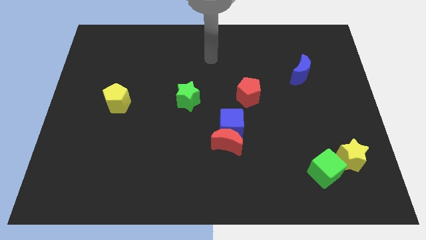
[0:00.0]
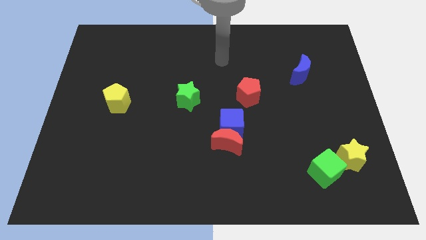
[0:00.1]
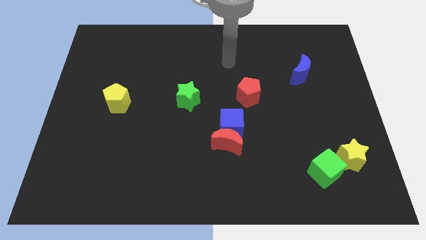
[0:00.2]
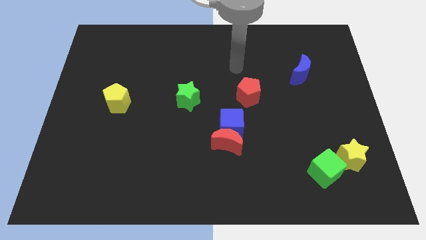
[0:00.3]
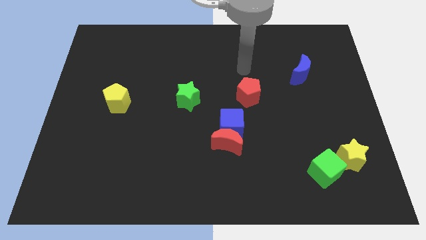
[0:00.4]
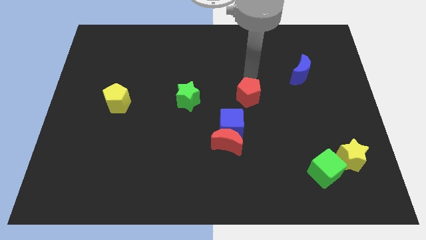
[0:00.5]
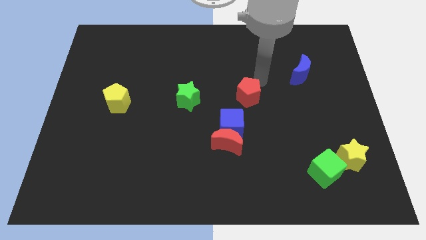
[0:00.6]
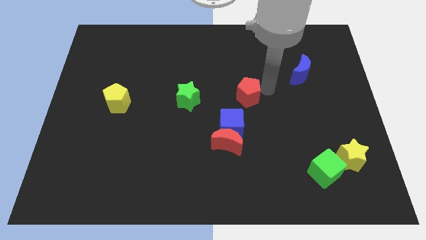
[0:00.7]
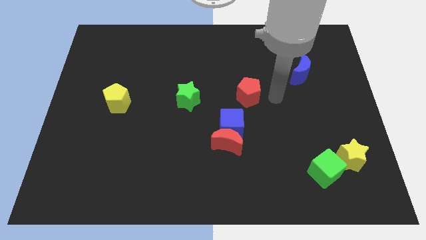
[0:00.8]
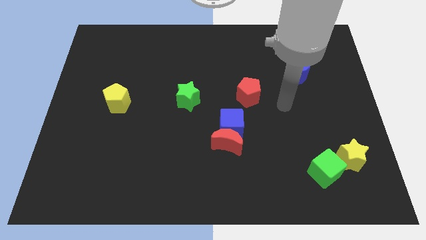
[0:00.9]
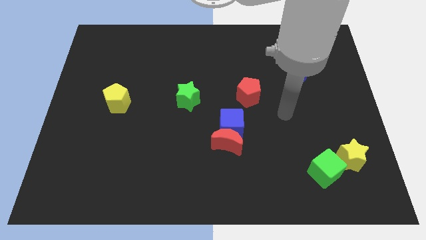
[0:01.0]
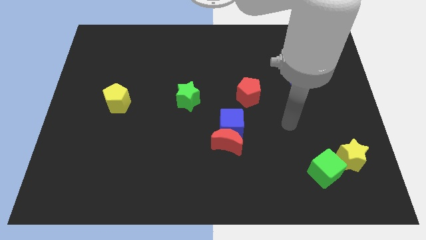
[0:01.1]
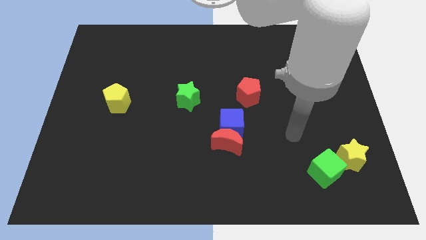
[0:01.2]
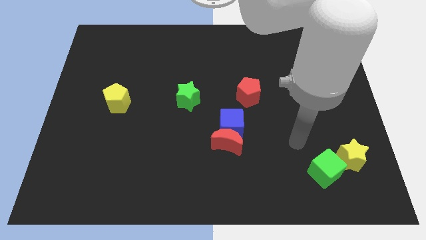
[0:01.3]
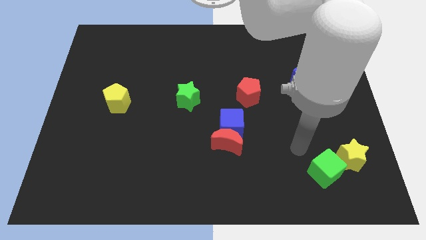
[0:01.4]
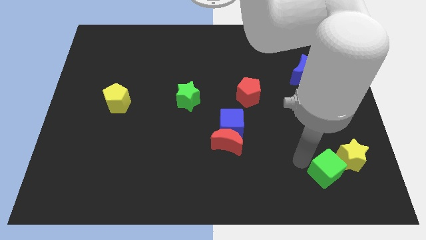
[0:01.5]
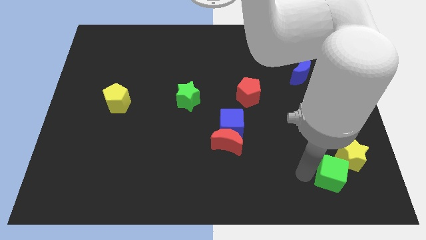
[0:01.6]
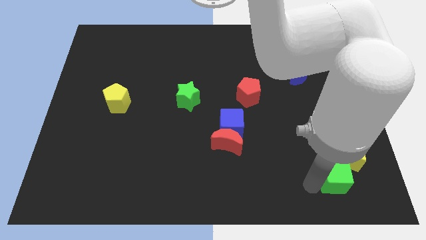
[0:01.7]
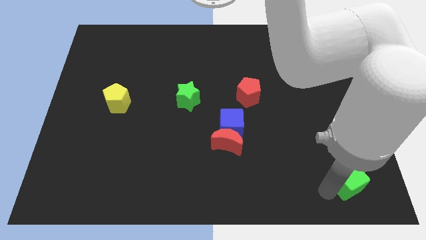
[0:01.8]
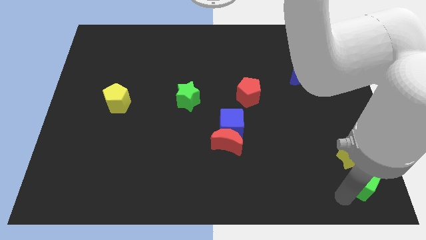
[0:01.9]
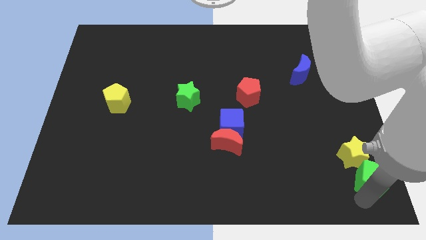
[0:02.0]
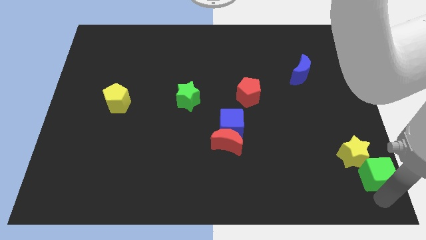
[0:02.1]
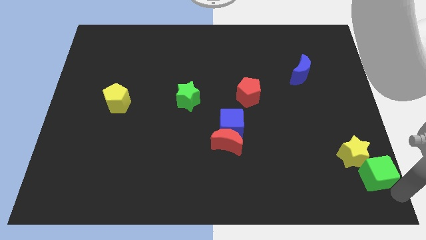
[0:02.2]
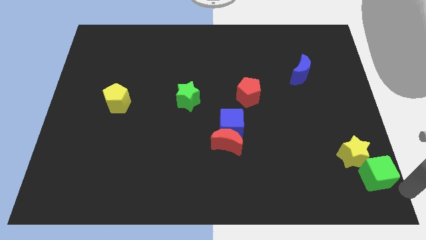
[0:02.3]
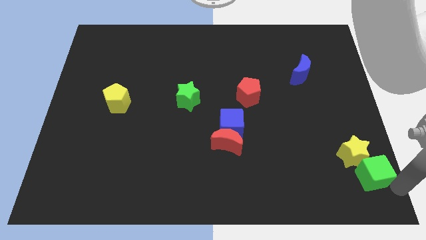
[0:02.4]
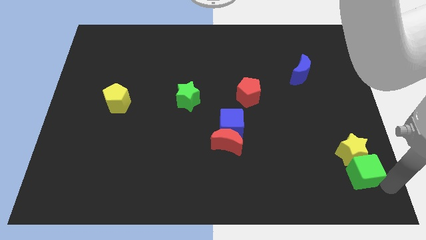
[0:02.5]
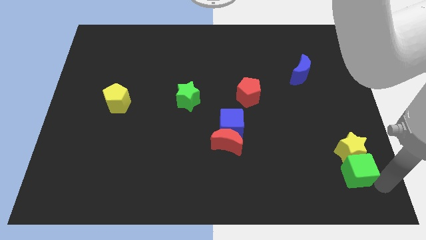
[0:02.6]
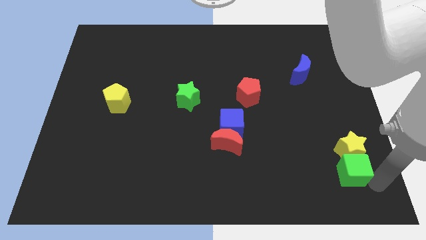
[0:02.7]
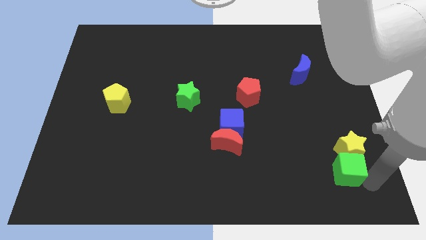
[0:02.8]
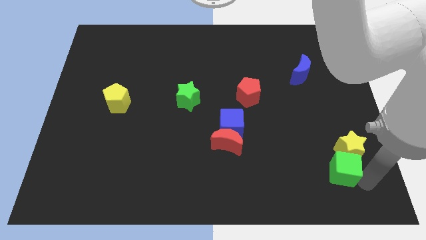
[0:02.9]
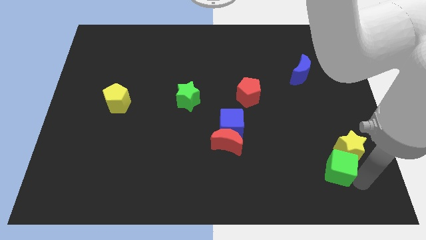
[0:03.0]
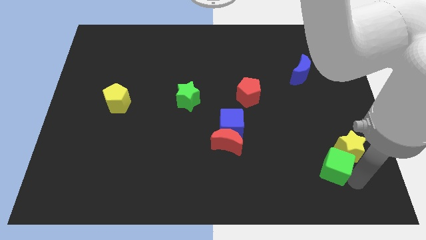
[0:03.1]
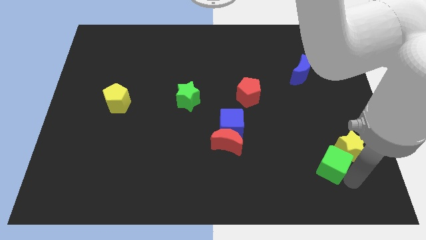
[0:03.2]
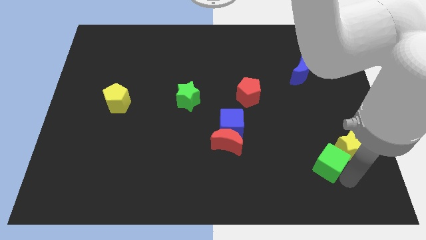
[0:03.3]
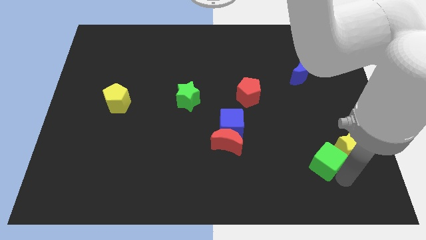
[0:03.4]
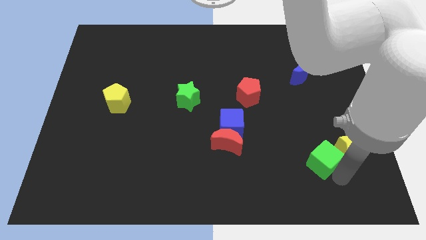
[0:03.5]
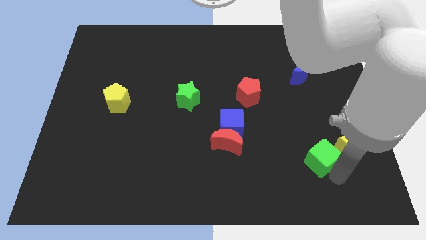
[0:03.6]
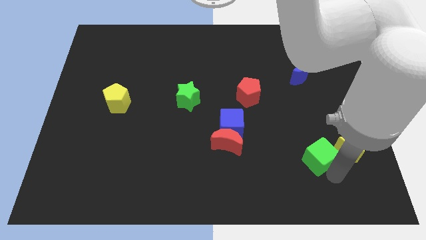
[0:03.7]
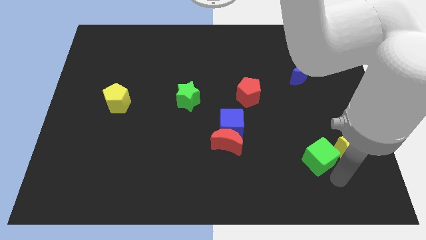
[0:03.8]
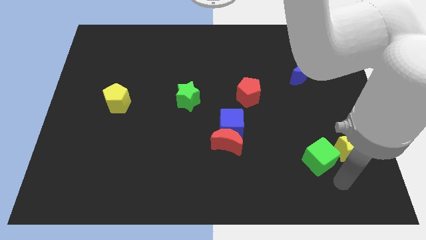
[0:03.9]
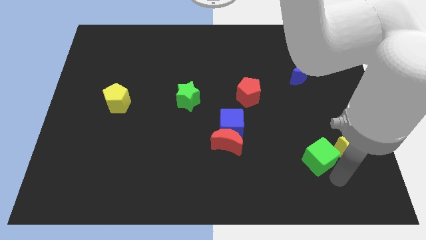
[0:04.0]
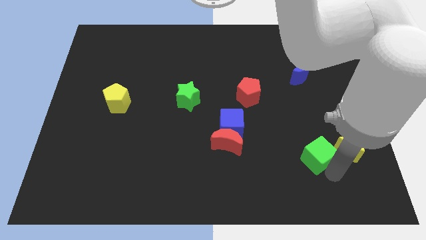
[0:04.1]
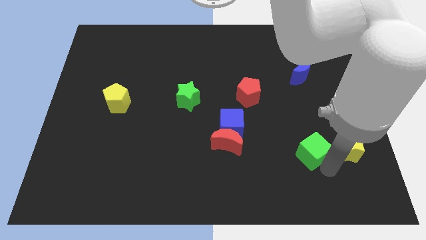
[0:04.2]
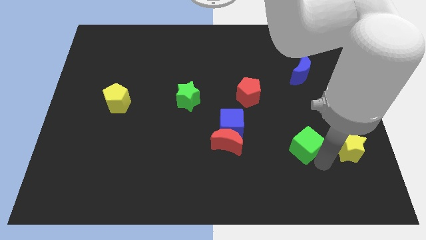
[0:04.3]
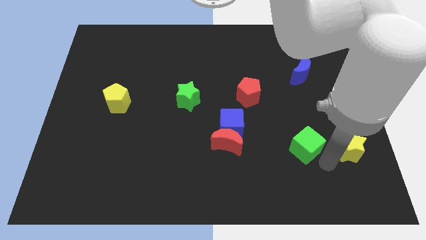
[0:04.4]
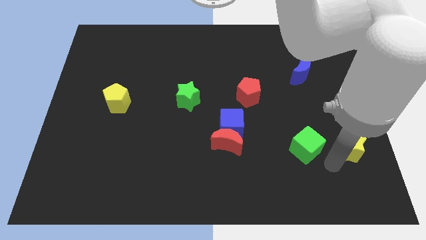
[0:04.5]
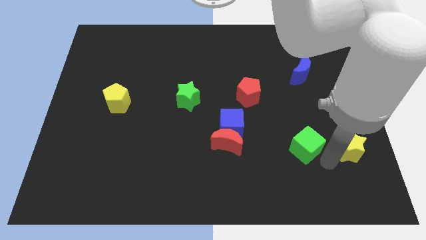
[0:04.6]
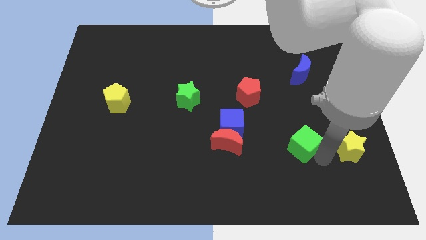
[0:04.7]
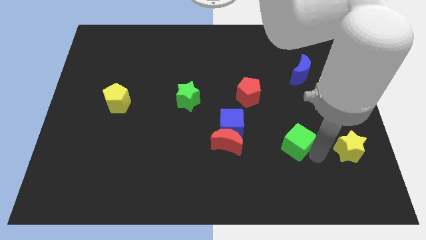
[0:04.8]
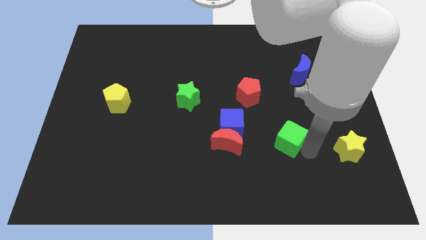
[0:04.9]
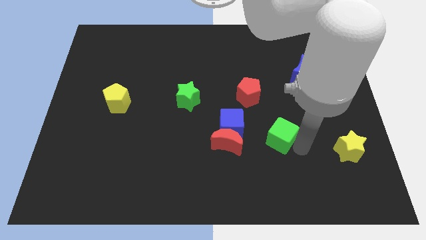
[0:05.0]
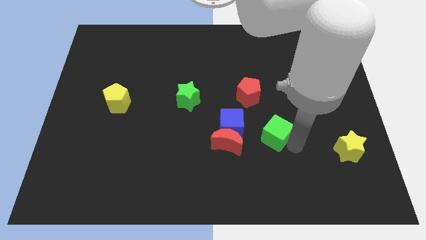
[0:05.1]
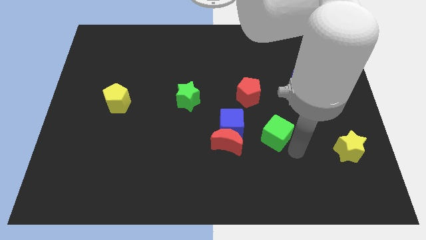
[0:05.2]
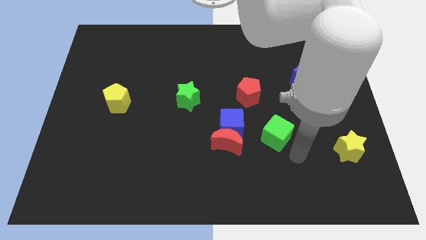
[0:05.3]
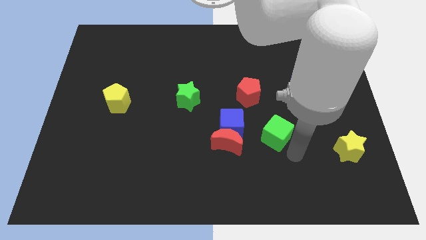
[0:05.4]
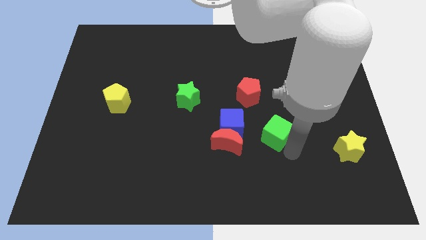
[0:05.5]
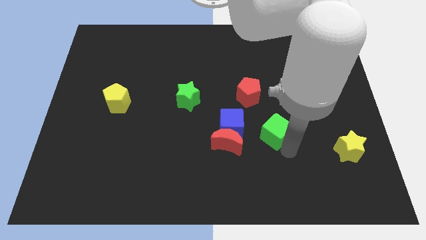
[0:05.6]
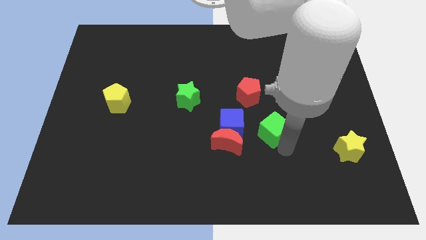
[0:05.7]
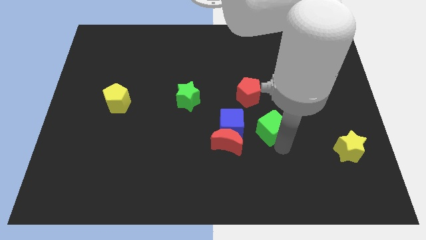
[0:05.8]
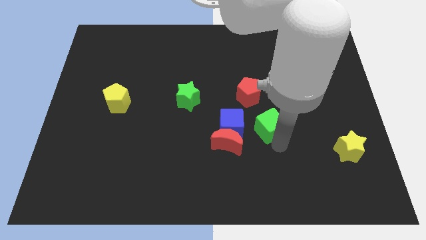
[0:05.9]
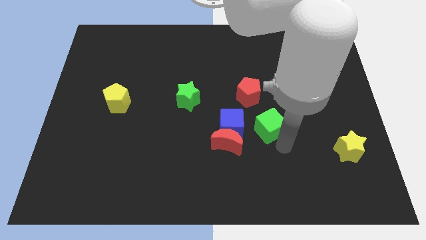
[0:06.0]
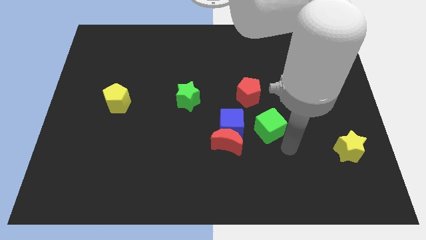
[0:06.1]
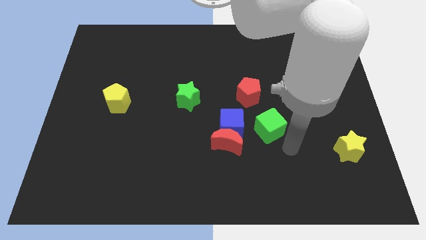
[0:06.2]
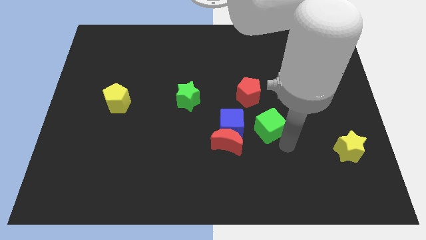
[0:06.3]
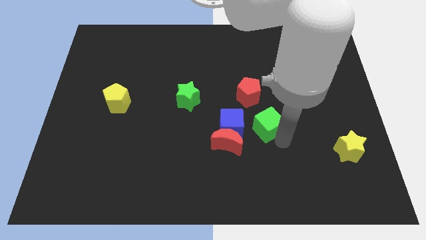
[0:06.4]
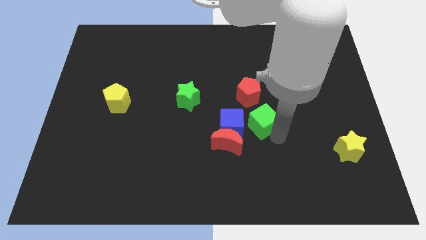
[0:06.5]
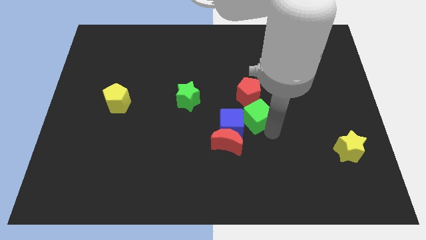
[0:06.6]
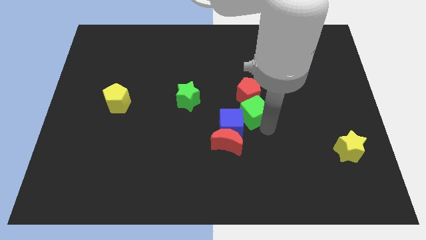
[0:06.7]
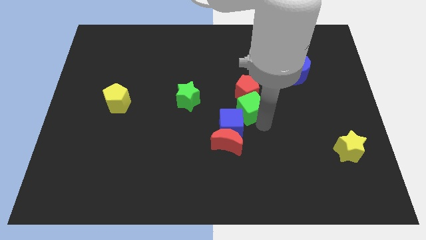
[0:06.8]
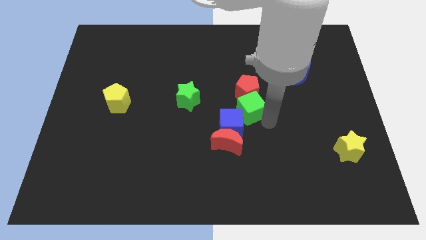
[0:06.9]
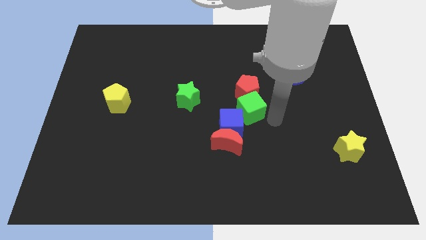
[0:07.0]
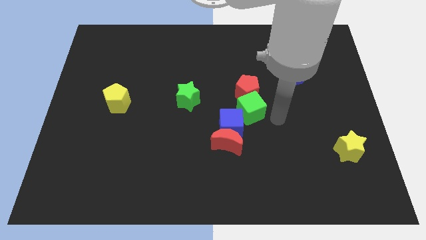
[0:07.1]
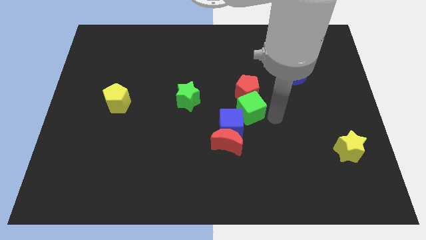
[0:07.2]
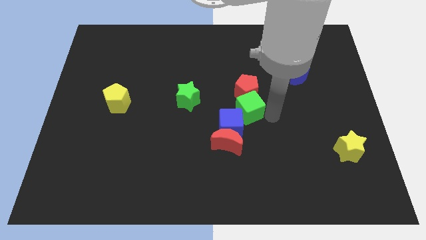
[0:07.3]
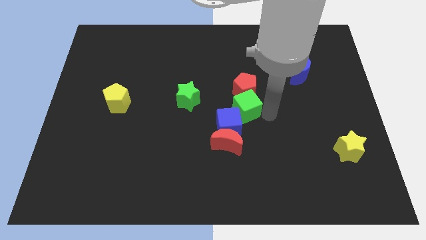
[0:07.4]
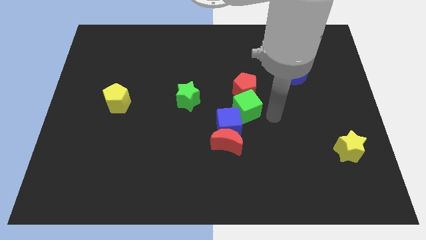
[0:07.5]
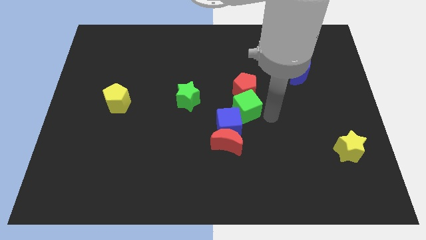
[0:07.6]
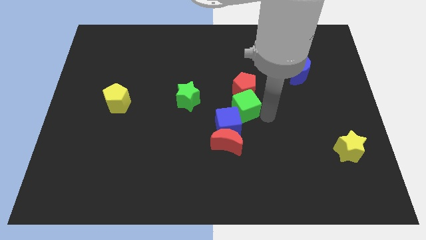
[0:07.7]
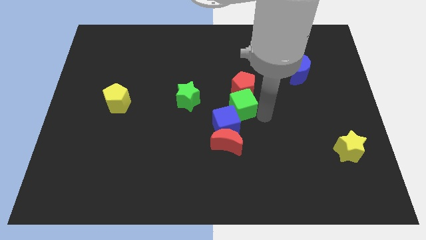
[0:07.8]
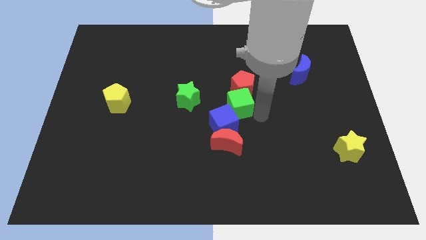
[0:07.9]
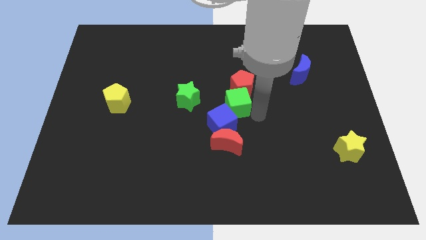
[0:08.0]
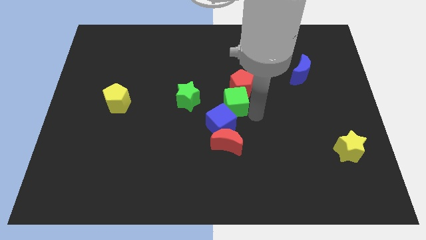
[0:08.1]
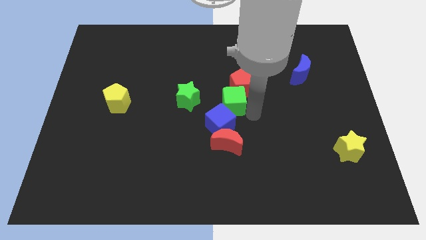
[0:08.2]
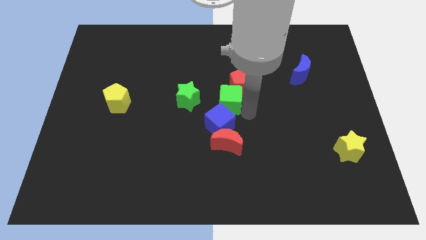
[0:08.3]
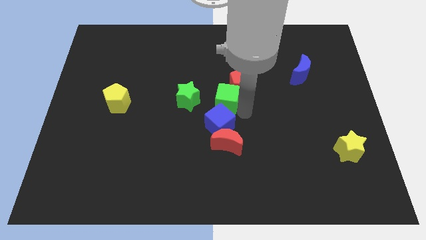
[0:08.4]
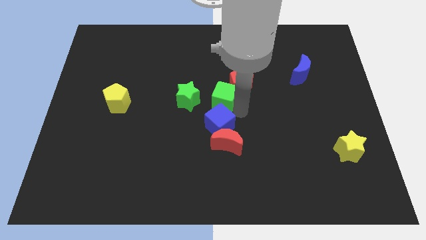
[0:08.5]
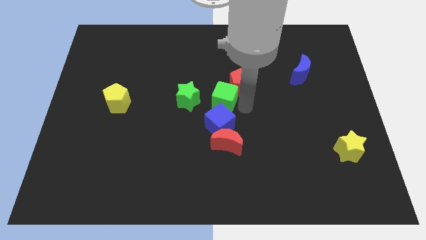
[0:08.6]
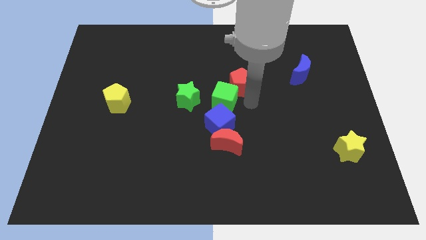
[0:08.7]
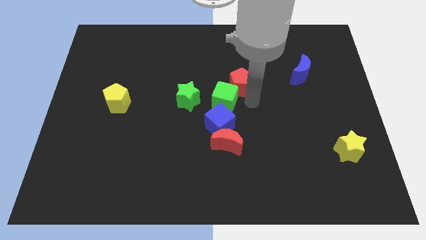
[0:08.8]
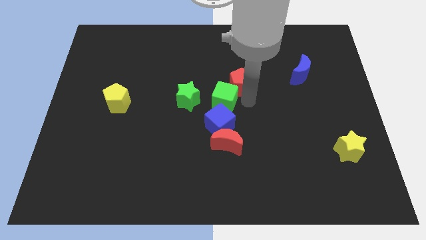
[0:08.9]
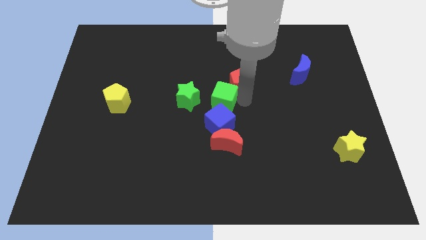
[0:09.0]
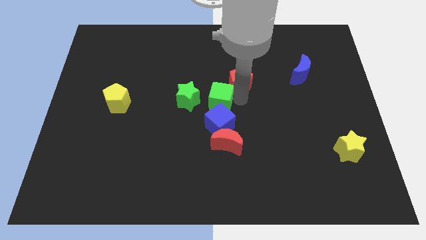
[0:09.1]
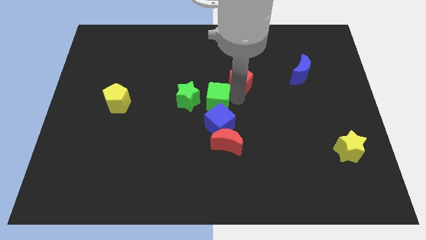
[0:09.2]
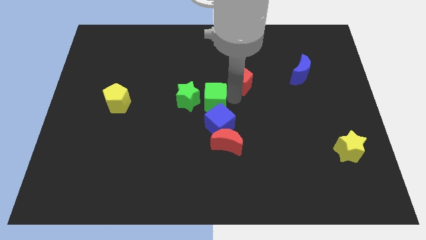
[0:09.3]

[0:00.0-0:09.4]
move the green cube next to the green star
